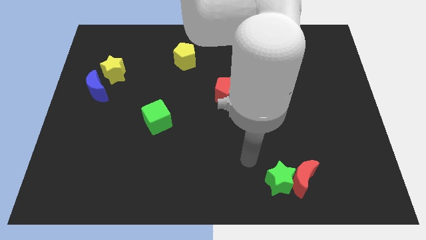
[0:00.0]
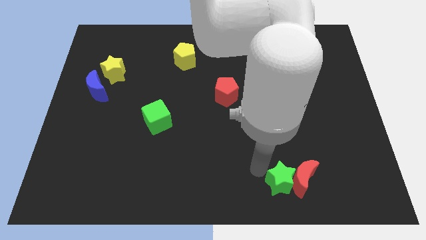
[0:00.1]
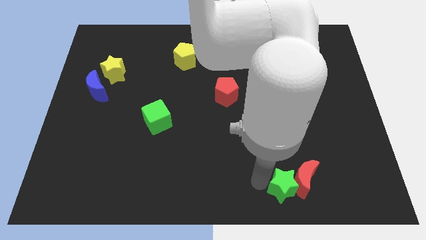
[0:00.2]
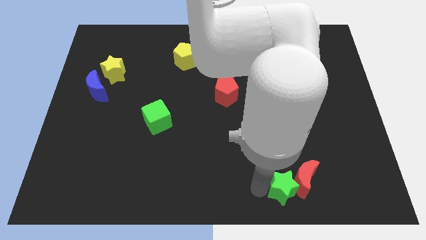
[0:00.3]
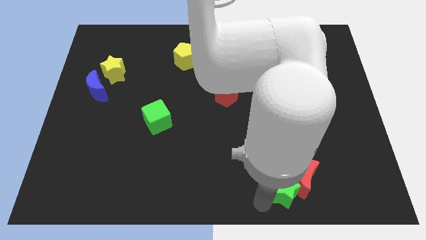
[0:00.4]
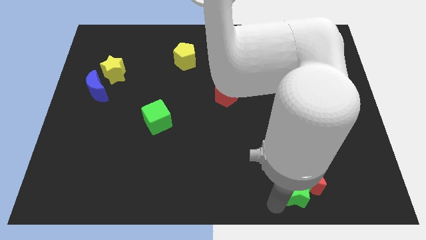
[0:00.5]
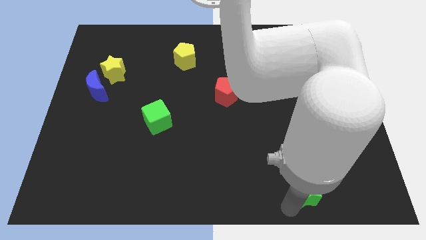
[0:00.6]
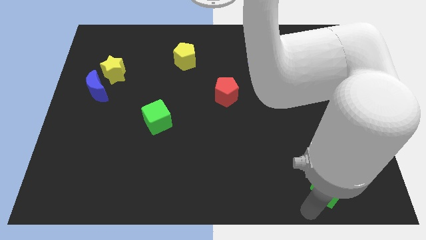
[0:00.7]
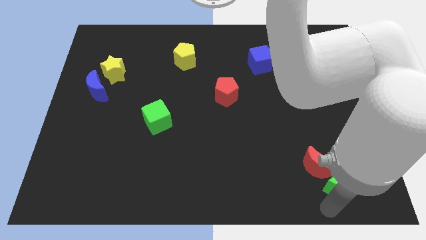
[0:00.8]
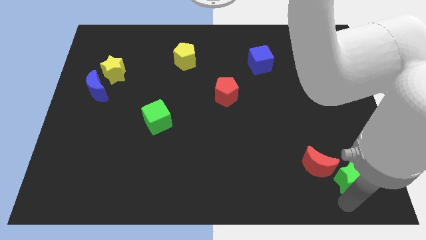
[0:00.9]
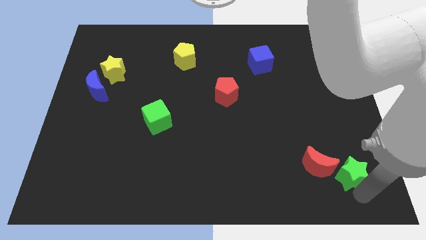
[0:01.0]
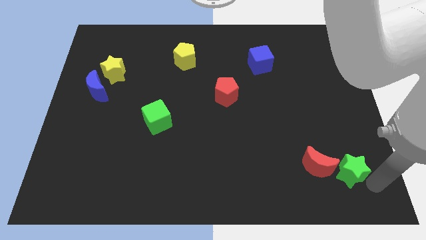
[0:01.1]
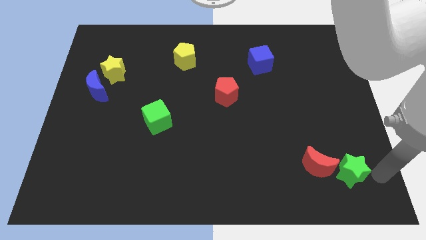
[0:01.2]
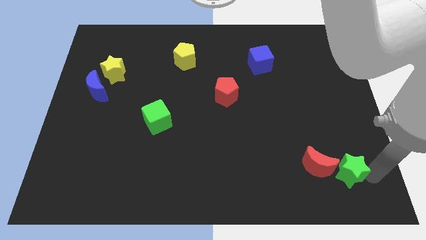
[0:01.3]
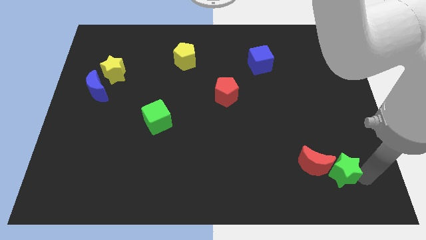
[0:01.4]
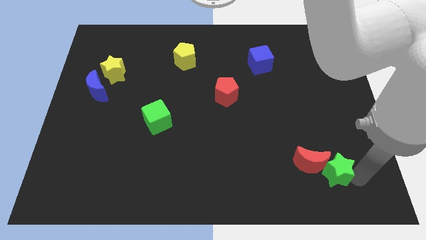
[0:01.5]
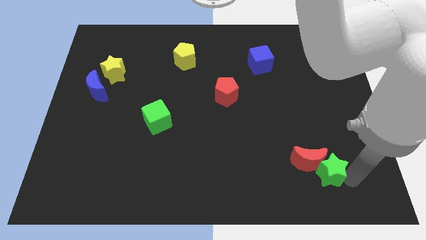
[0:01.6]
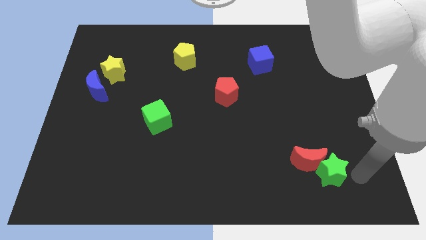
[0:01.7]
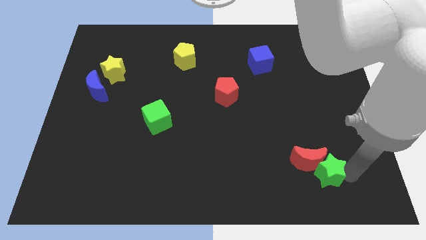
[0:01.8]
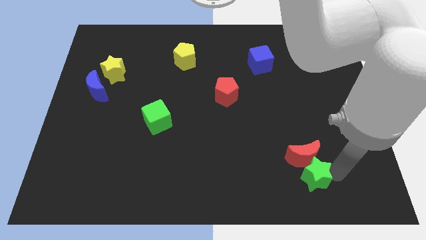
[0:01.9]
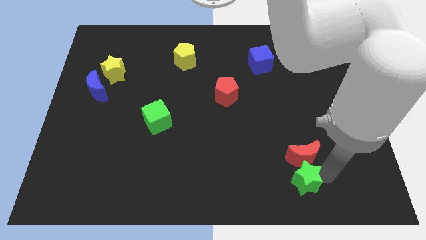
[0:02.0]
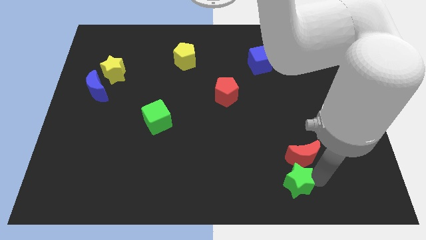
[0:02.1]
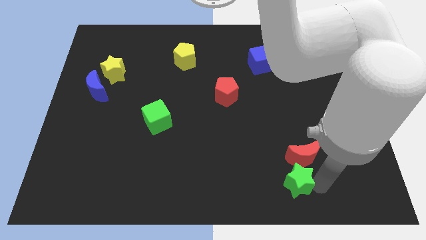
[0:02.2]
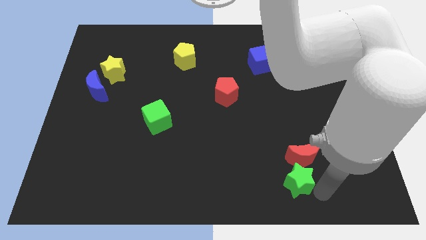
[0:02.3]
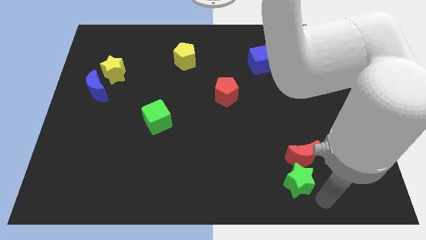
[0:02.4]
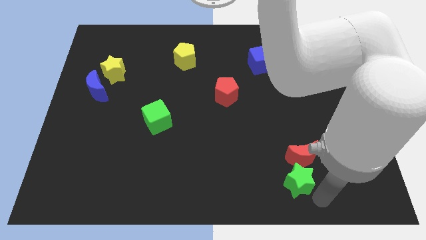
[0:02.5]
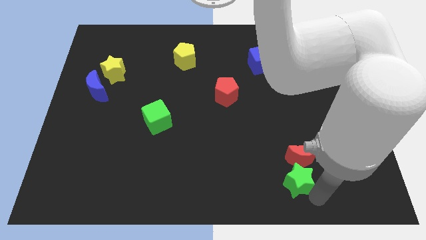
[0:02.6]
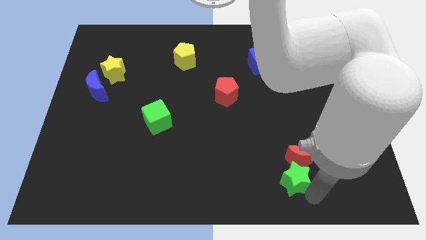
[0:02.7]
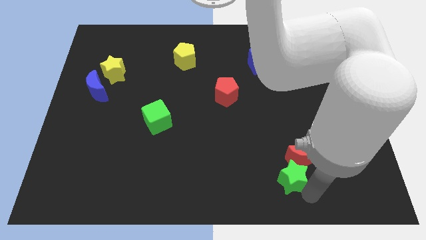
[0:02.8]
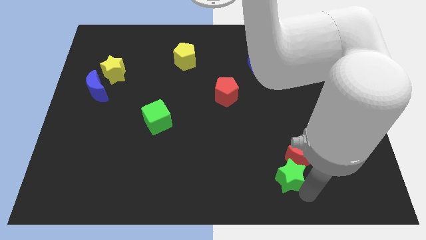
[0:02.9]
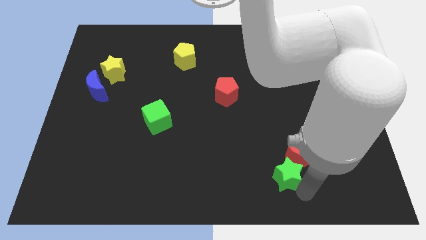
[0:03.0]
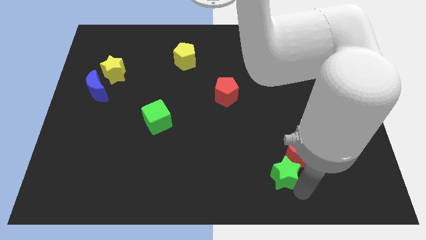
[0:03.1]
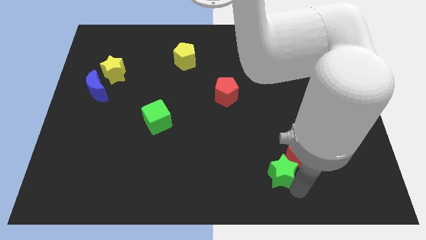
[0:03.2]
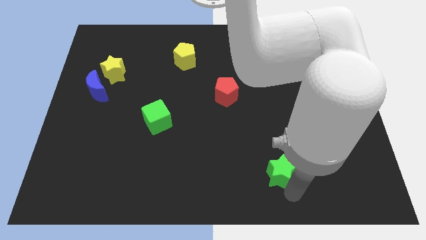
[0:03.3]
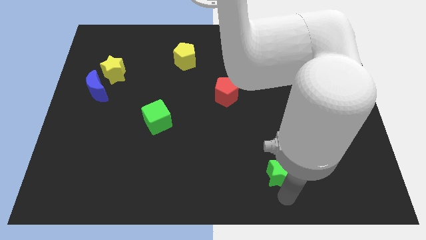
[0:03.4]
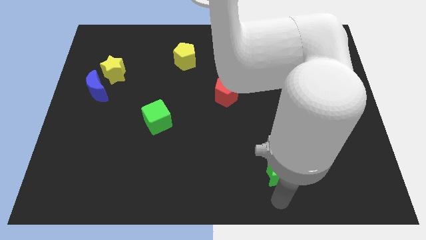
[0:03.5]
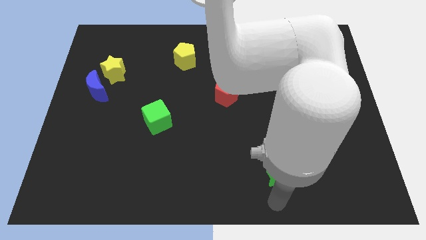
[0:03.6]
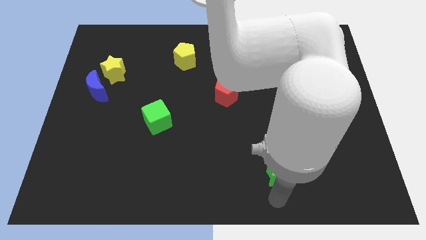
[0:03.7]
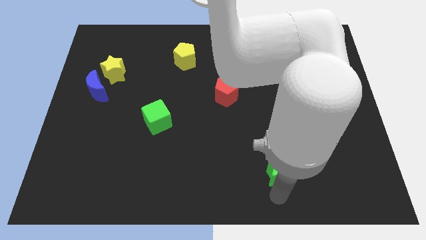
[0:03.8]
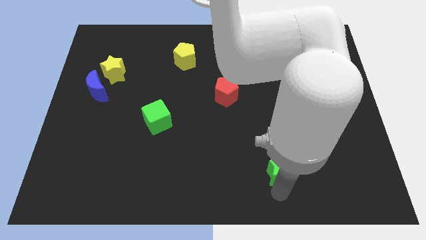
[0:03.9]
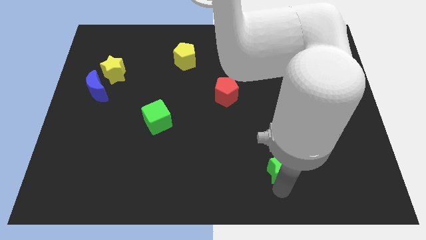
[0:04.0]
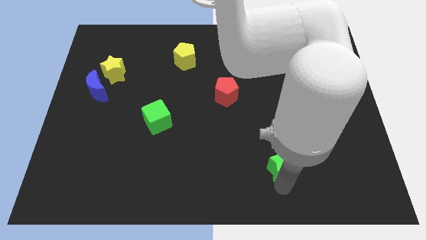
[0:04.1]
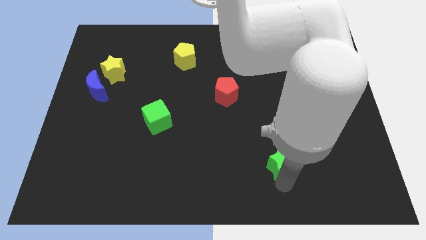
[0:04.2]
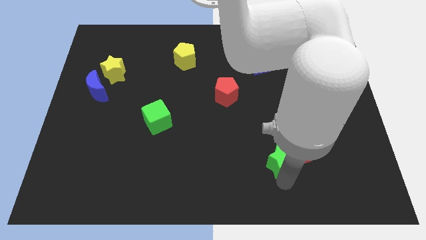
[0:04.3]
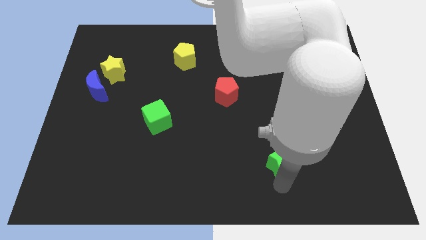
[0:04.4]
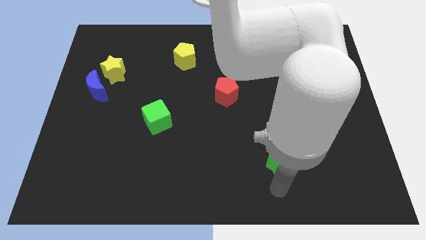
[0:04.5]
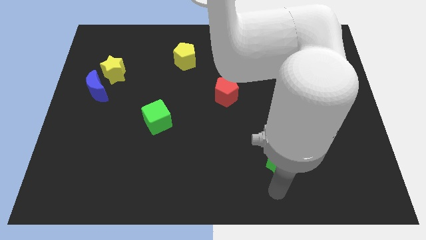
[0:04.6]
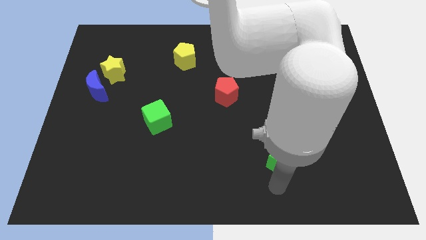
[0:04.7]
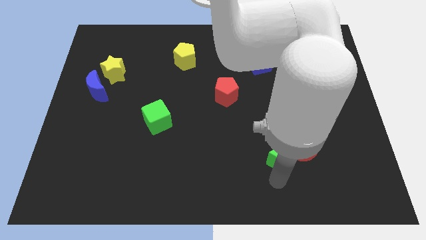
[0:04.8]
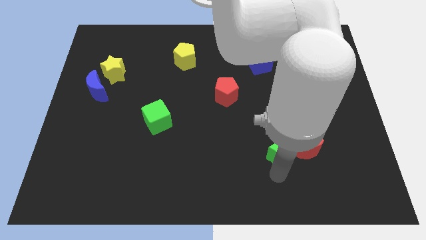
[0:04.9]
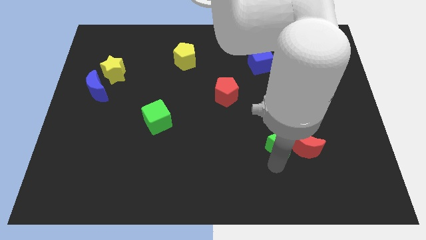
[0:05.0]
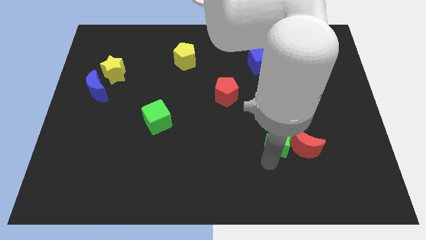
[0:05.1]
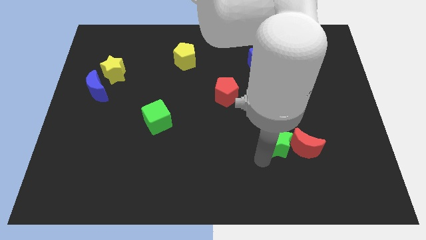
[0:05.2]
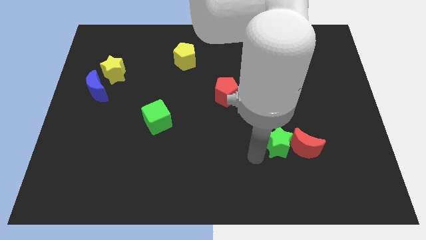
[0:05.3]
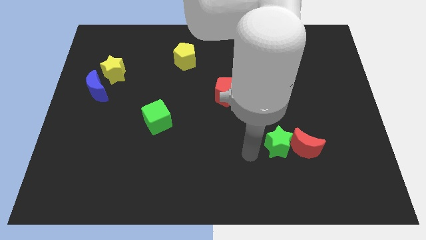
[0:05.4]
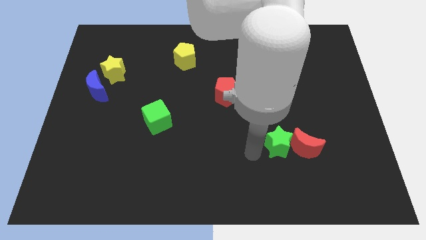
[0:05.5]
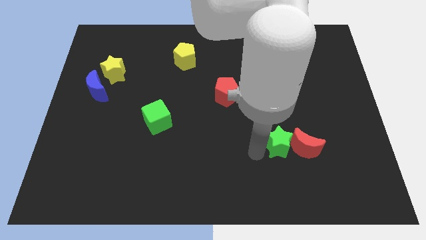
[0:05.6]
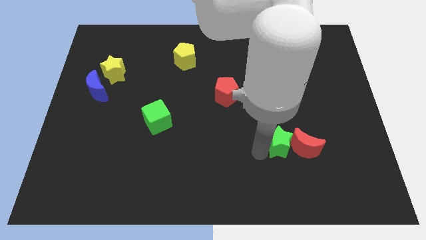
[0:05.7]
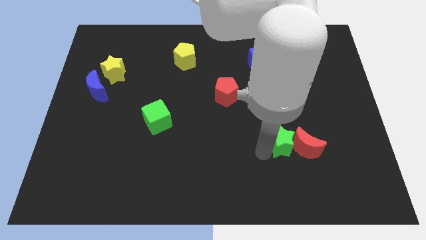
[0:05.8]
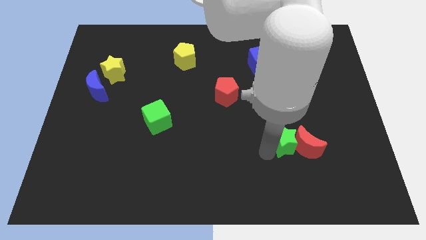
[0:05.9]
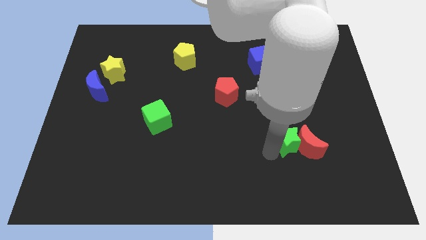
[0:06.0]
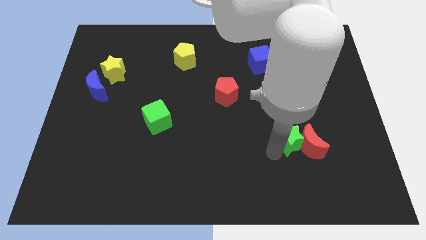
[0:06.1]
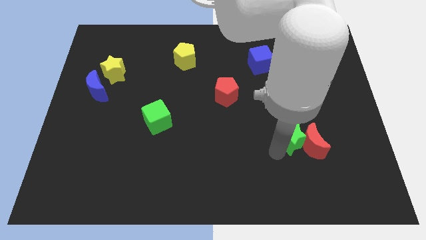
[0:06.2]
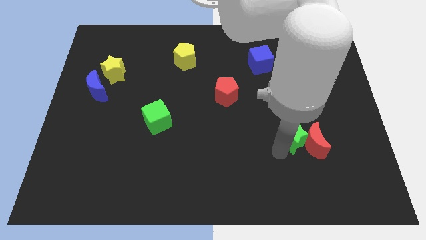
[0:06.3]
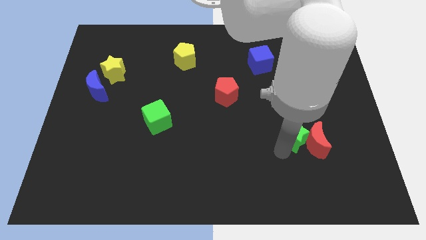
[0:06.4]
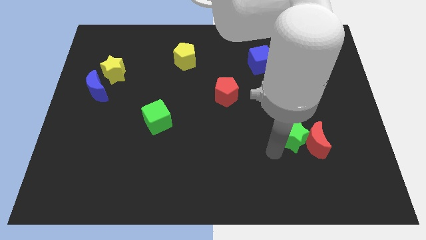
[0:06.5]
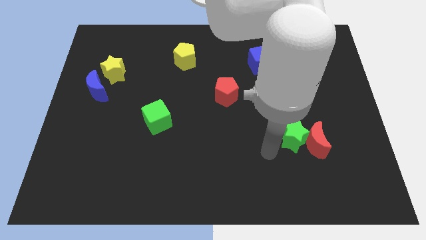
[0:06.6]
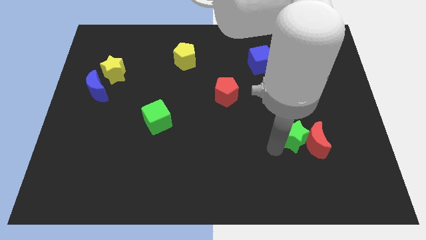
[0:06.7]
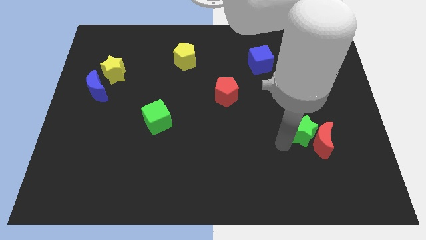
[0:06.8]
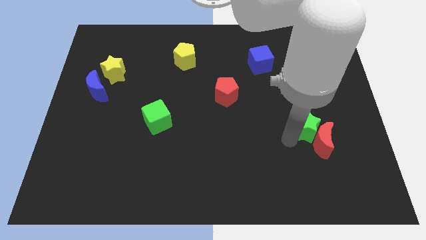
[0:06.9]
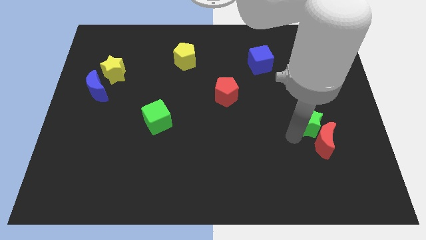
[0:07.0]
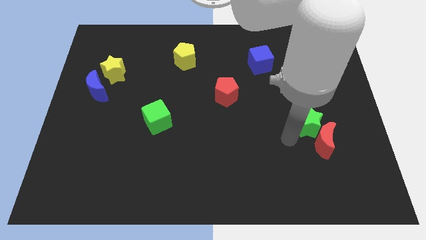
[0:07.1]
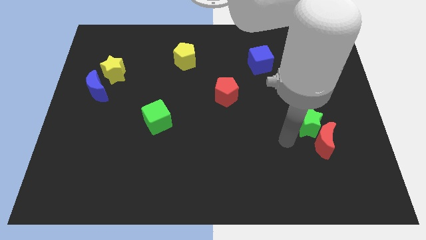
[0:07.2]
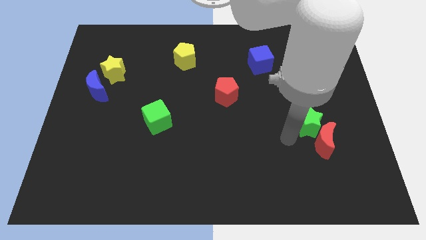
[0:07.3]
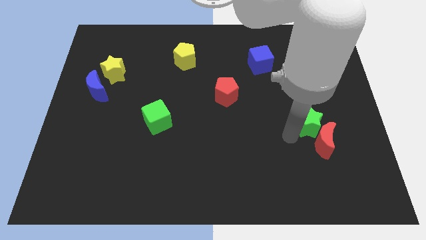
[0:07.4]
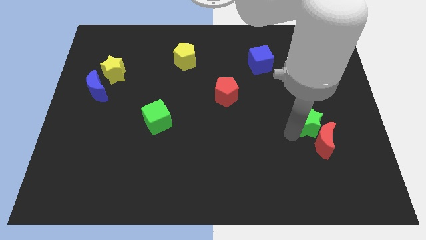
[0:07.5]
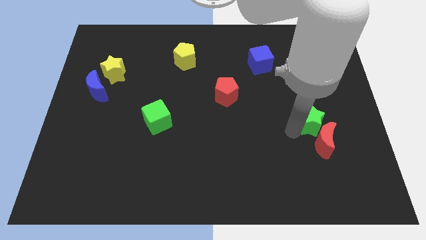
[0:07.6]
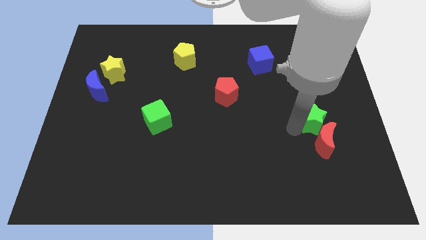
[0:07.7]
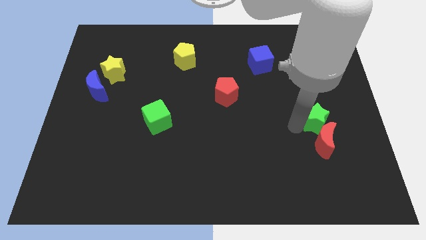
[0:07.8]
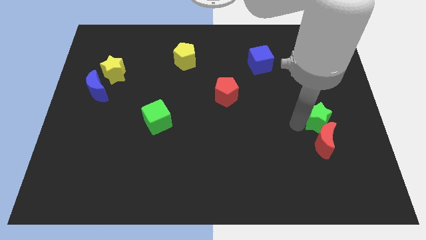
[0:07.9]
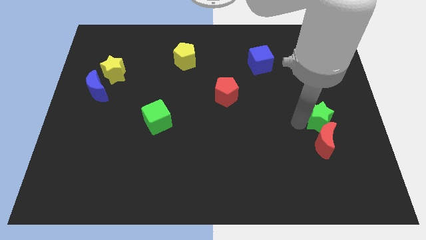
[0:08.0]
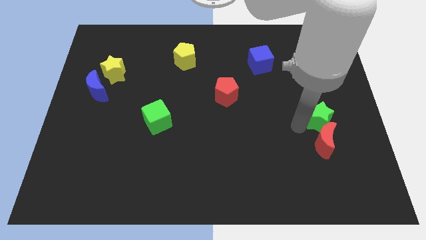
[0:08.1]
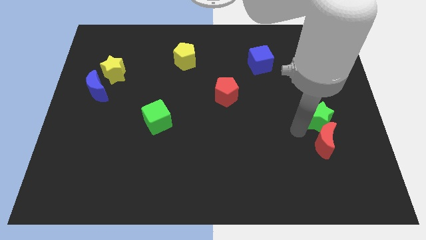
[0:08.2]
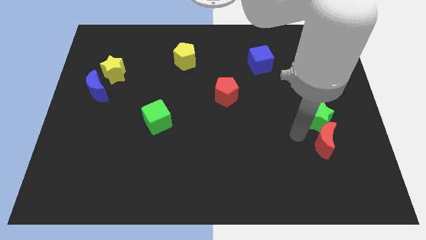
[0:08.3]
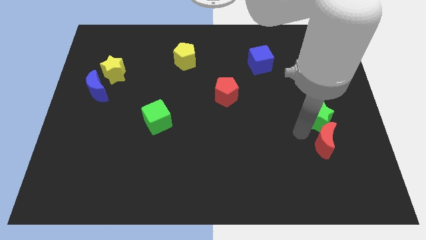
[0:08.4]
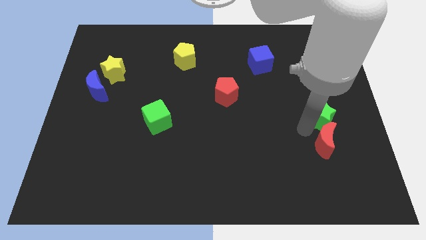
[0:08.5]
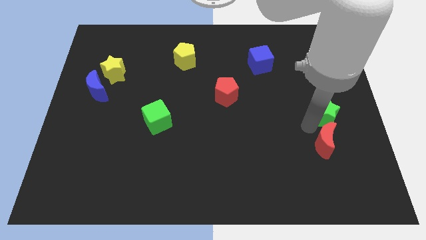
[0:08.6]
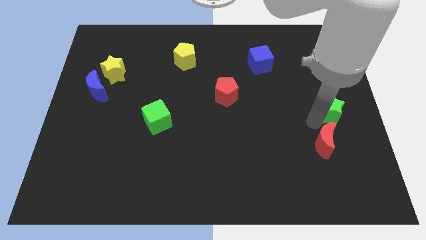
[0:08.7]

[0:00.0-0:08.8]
slide the green star to the right side of the board
